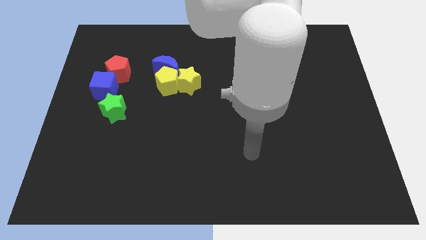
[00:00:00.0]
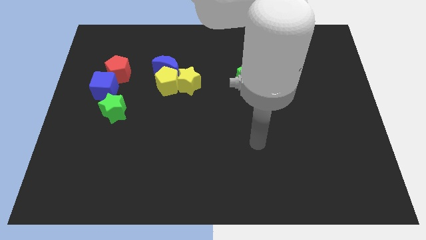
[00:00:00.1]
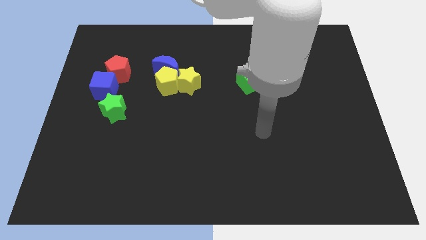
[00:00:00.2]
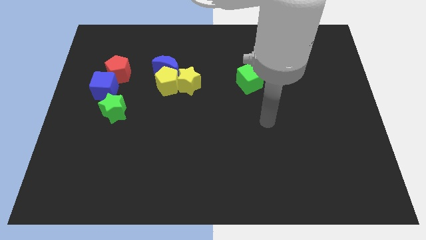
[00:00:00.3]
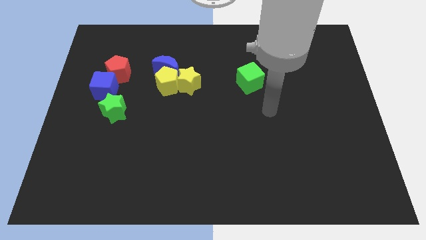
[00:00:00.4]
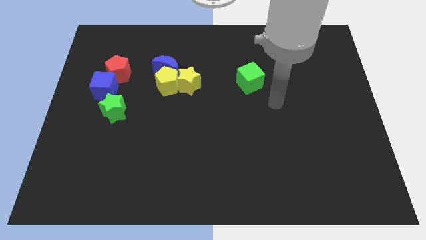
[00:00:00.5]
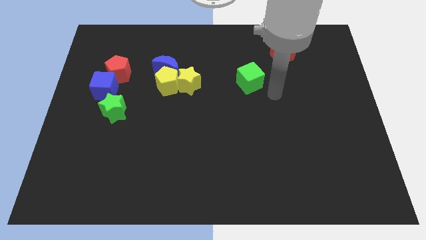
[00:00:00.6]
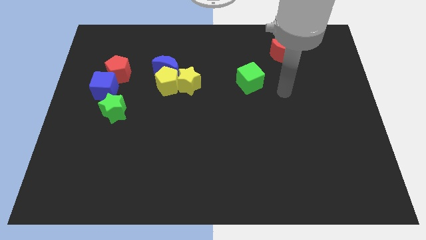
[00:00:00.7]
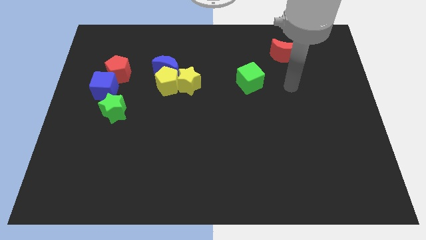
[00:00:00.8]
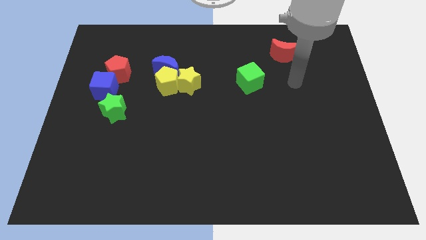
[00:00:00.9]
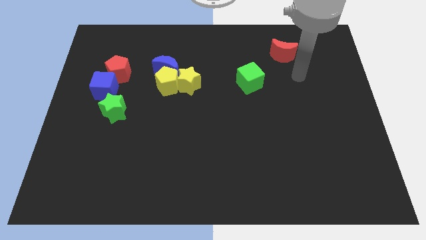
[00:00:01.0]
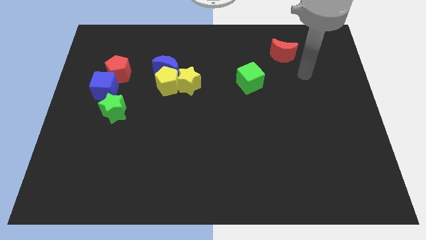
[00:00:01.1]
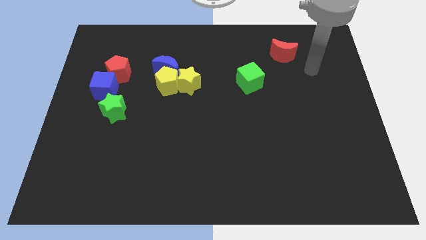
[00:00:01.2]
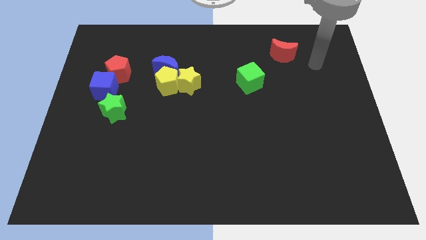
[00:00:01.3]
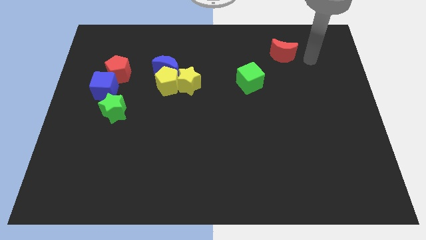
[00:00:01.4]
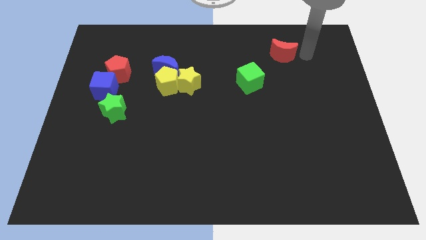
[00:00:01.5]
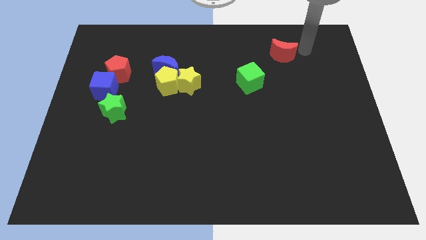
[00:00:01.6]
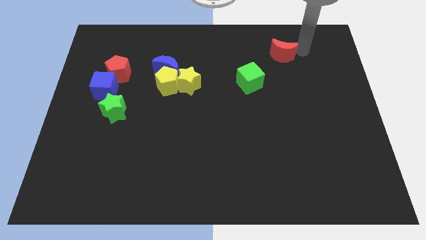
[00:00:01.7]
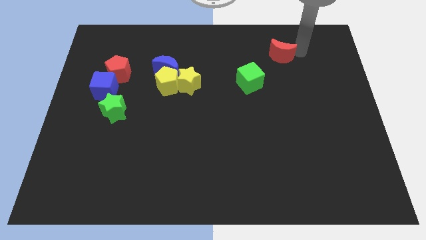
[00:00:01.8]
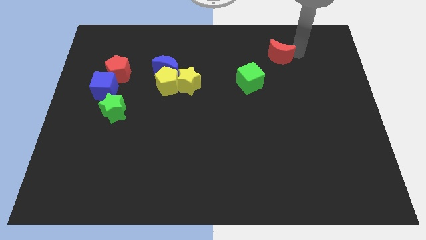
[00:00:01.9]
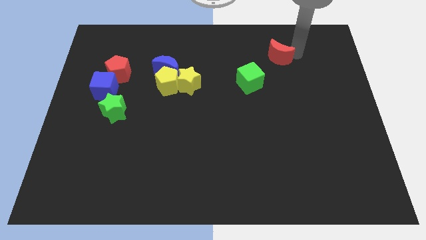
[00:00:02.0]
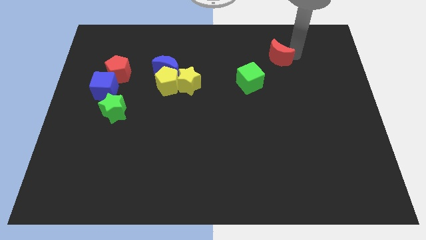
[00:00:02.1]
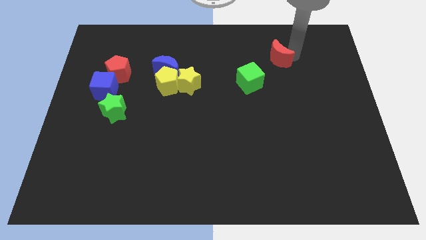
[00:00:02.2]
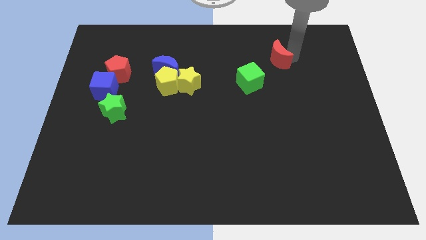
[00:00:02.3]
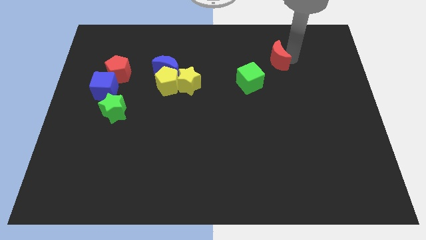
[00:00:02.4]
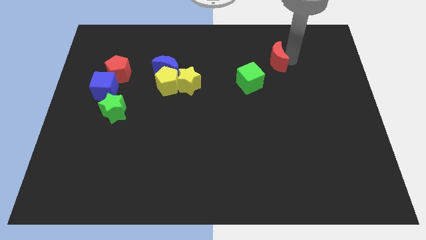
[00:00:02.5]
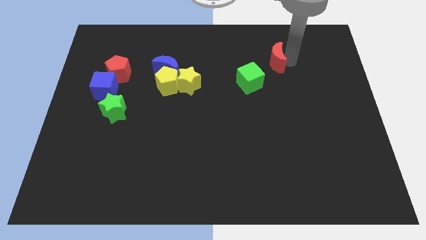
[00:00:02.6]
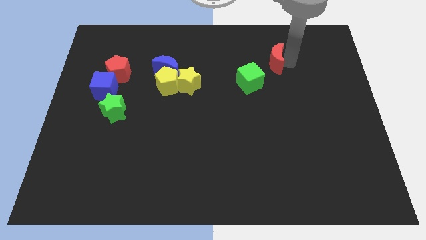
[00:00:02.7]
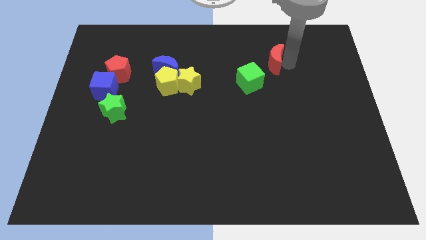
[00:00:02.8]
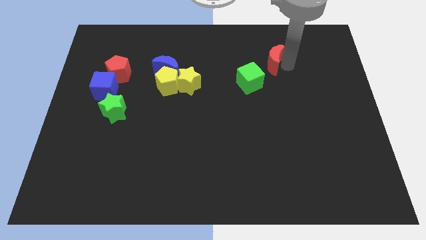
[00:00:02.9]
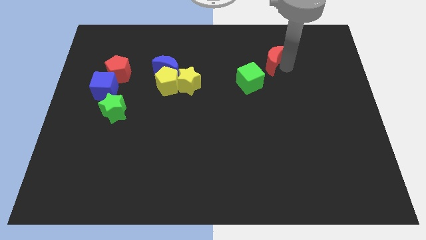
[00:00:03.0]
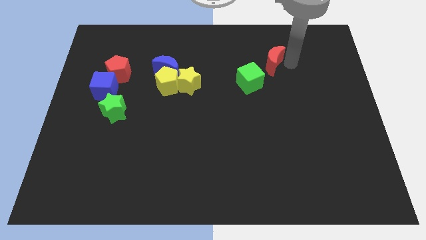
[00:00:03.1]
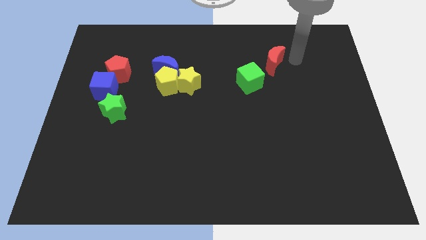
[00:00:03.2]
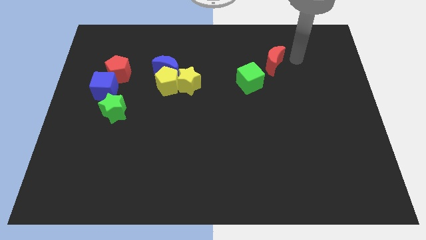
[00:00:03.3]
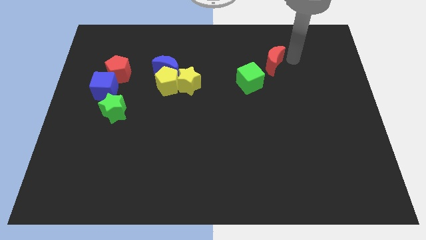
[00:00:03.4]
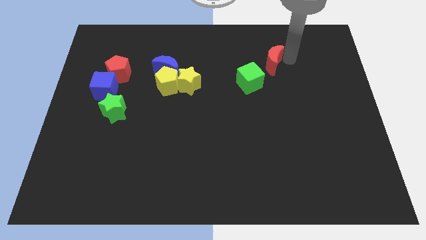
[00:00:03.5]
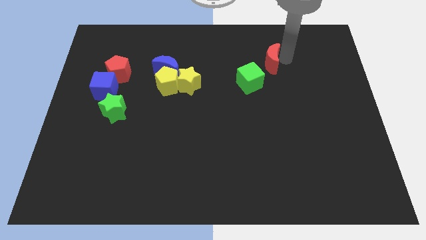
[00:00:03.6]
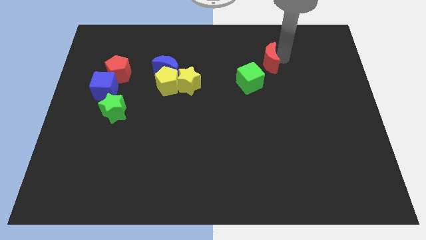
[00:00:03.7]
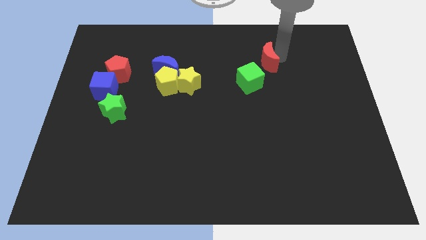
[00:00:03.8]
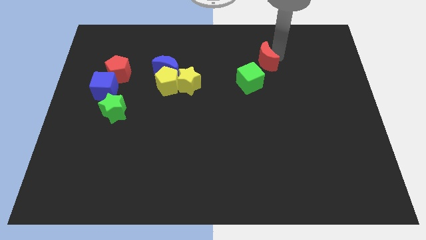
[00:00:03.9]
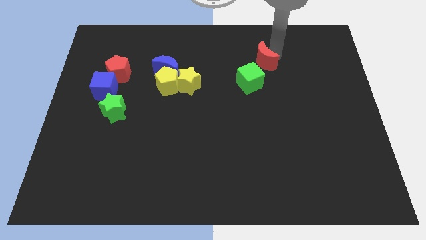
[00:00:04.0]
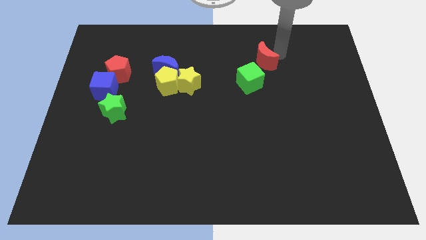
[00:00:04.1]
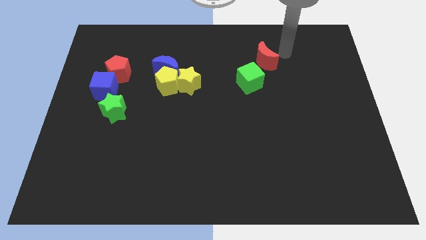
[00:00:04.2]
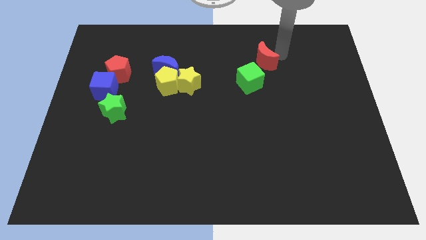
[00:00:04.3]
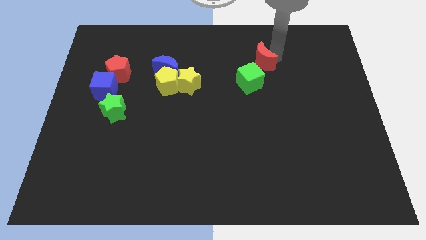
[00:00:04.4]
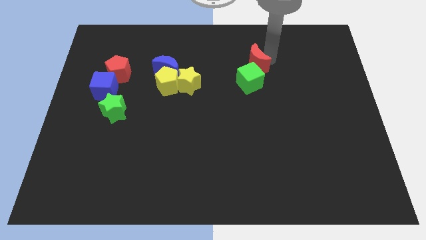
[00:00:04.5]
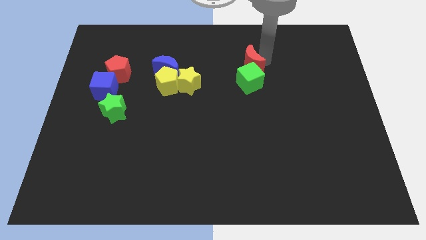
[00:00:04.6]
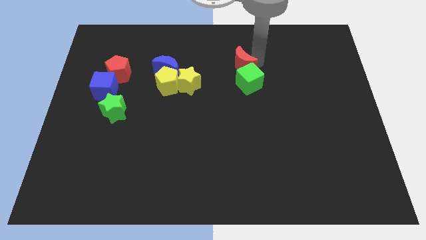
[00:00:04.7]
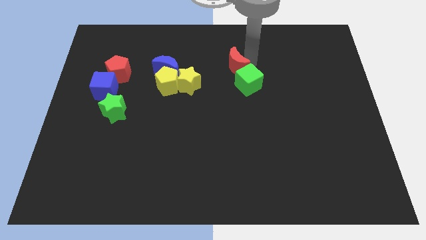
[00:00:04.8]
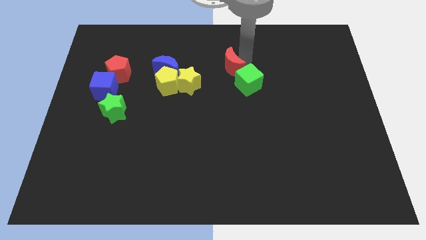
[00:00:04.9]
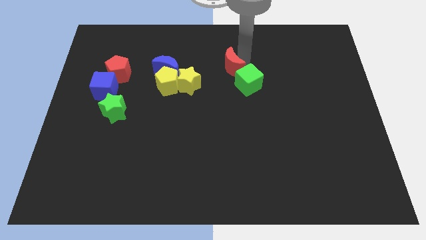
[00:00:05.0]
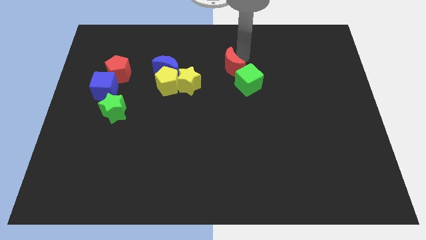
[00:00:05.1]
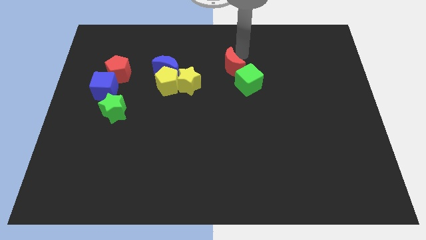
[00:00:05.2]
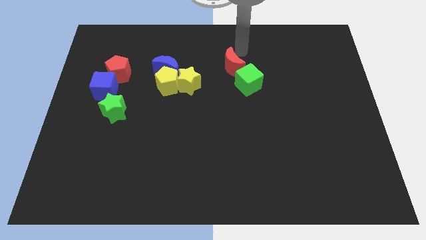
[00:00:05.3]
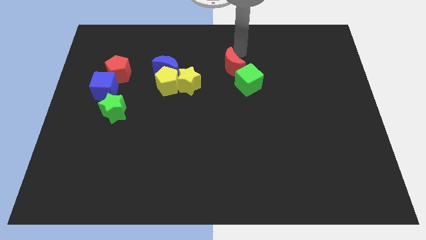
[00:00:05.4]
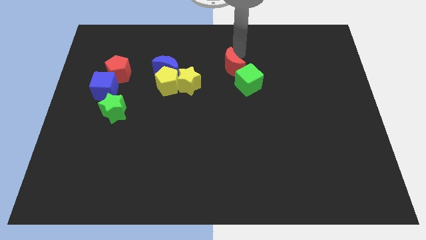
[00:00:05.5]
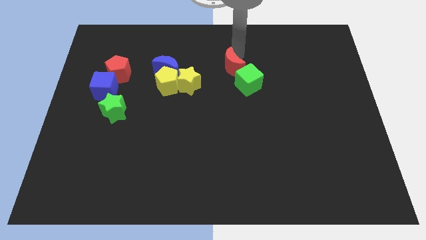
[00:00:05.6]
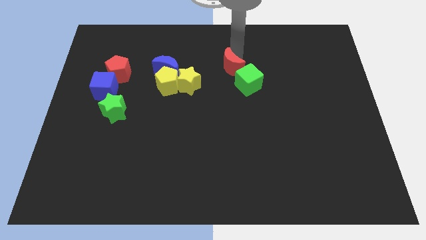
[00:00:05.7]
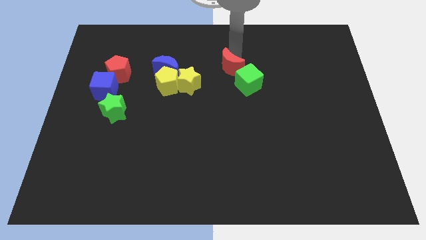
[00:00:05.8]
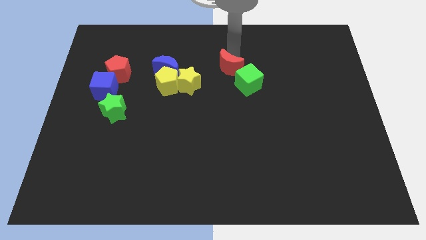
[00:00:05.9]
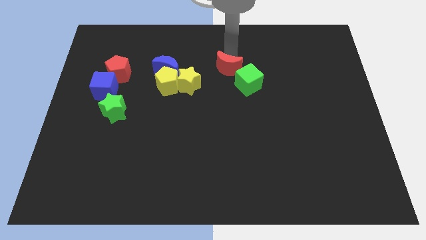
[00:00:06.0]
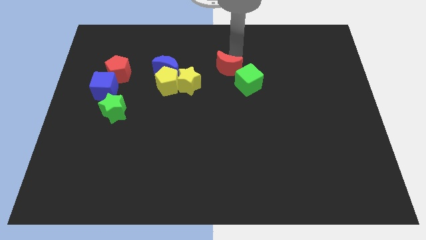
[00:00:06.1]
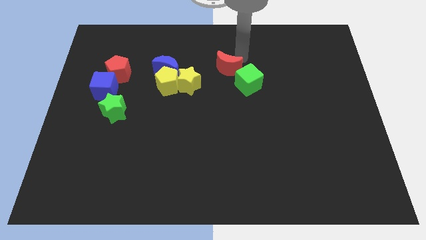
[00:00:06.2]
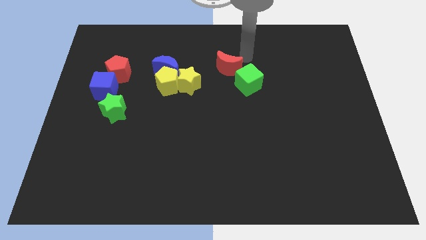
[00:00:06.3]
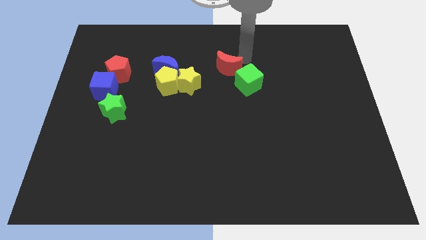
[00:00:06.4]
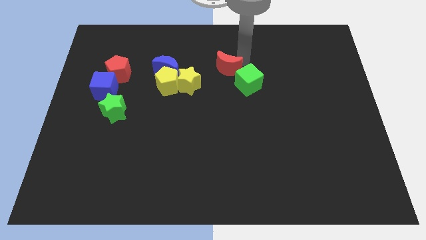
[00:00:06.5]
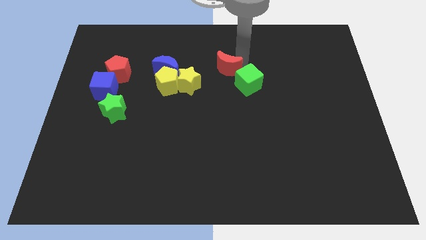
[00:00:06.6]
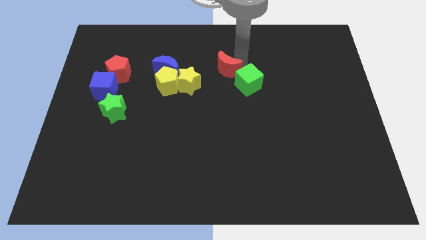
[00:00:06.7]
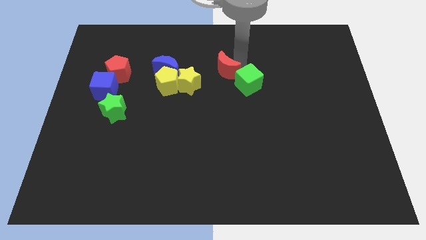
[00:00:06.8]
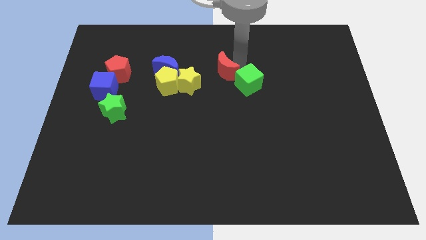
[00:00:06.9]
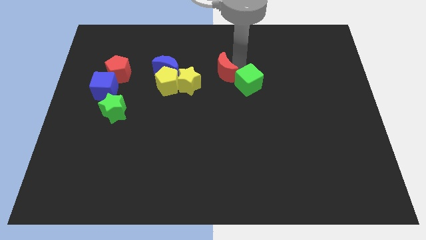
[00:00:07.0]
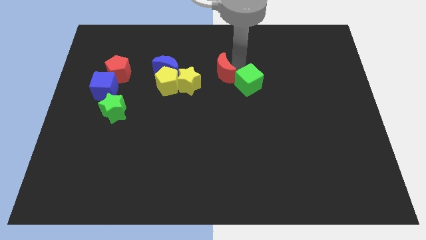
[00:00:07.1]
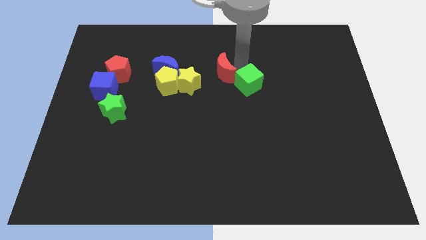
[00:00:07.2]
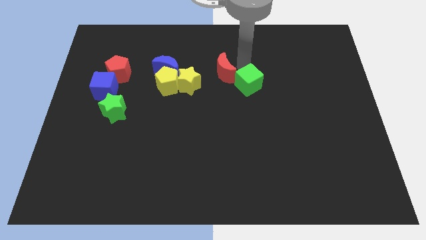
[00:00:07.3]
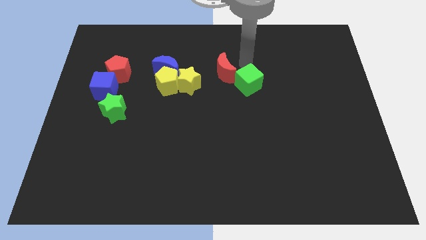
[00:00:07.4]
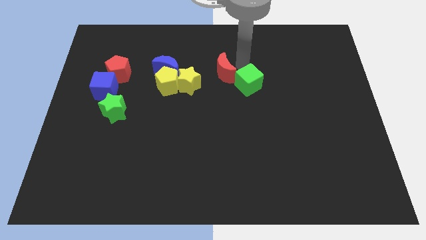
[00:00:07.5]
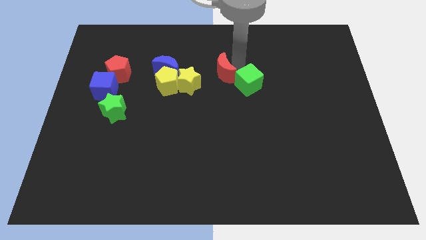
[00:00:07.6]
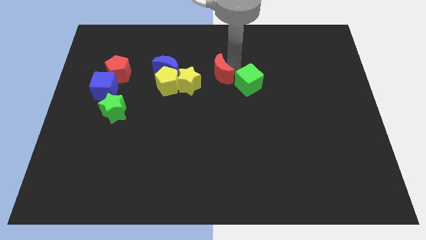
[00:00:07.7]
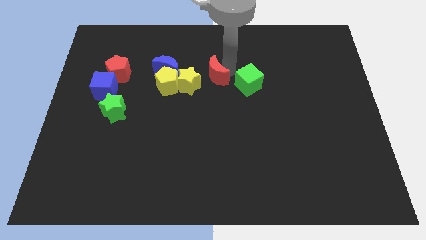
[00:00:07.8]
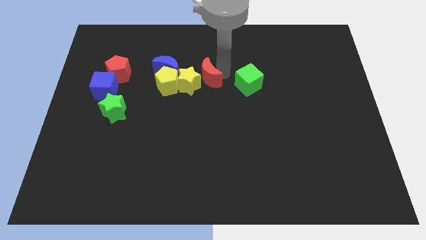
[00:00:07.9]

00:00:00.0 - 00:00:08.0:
move the red moon to the yellow star
